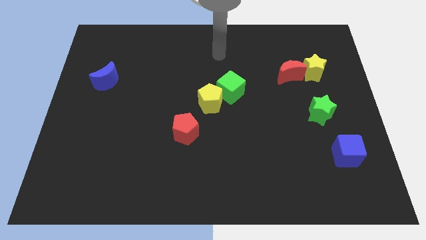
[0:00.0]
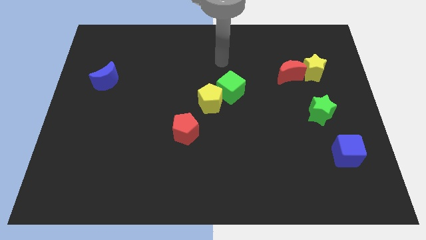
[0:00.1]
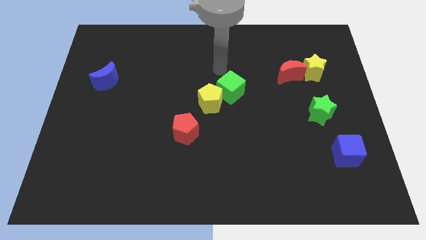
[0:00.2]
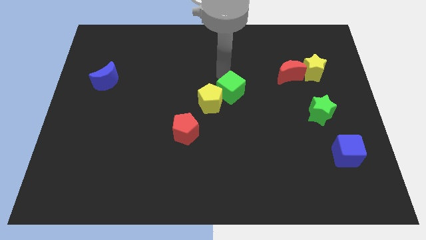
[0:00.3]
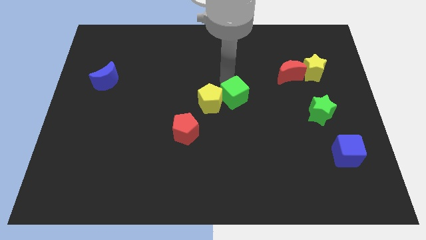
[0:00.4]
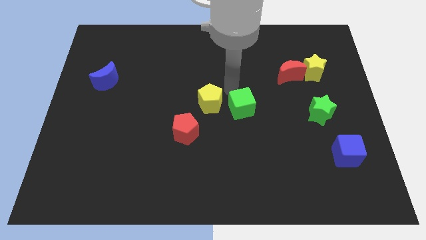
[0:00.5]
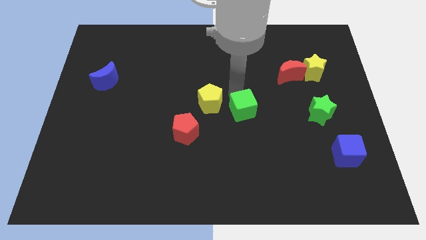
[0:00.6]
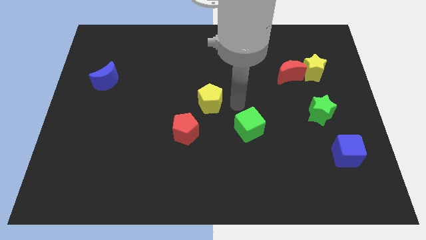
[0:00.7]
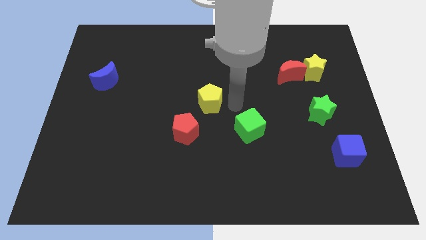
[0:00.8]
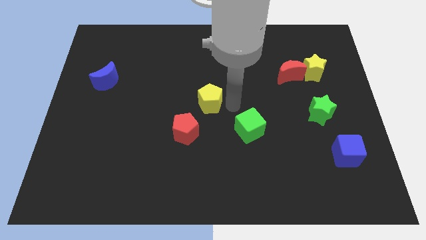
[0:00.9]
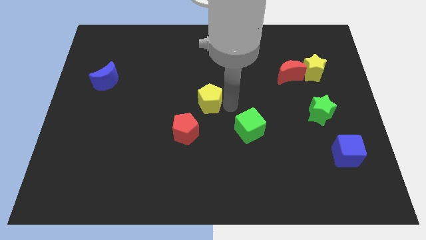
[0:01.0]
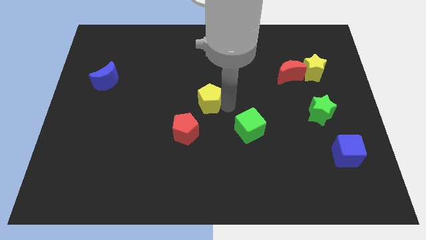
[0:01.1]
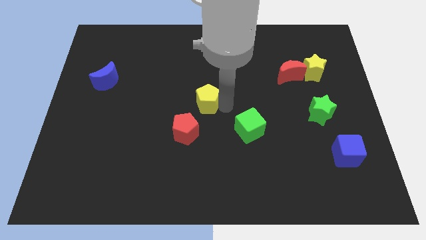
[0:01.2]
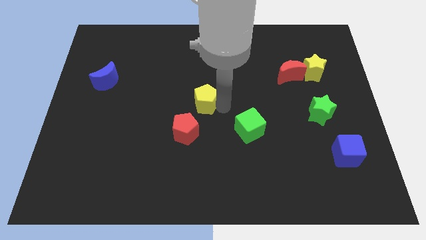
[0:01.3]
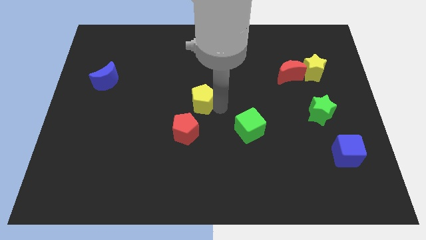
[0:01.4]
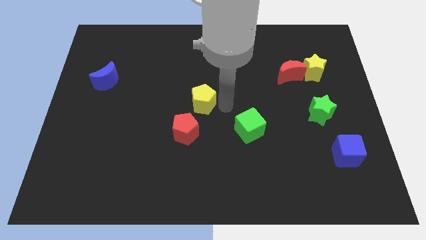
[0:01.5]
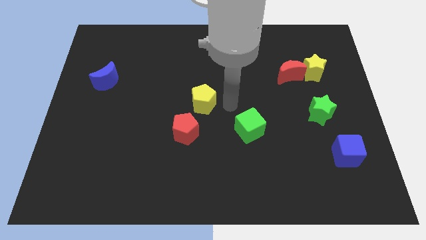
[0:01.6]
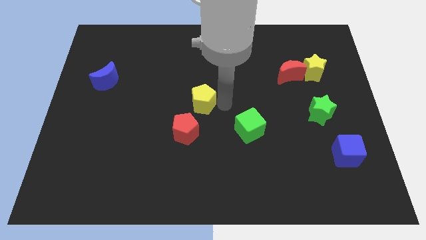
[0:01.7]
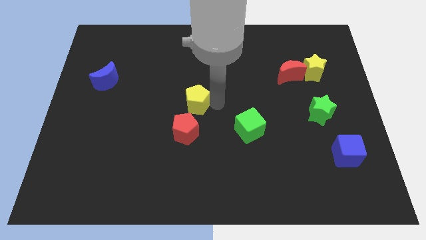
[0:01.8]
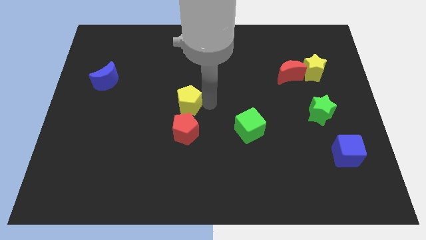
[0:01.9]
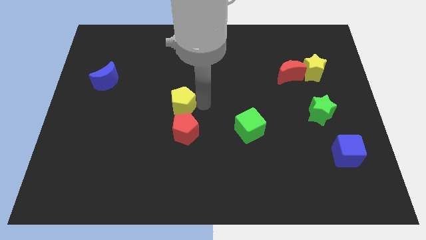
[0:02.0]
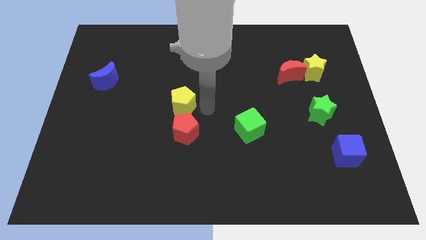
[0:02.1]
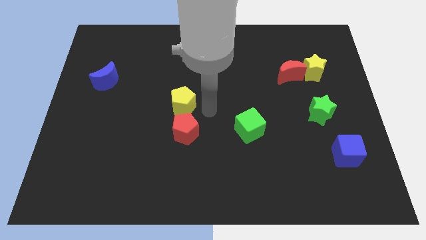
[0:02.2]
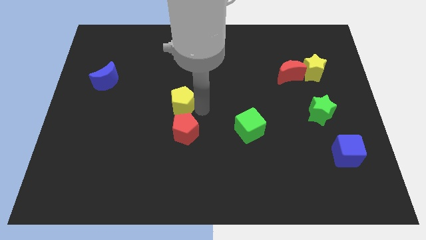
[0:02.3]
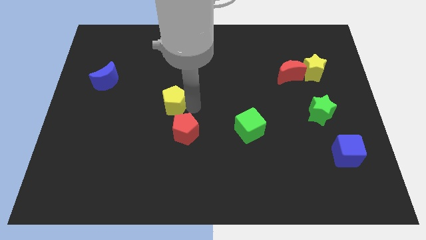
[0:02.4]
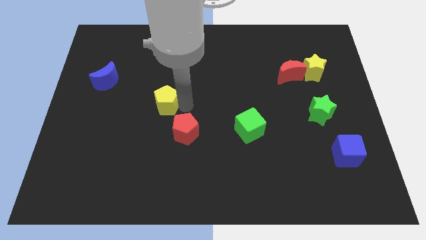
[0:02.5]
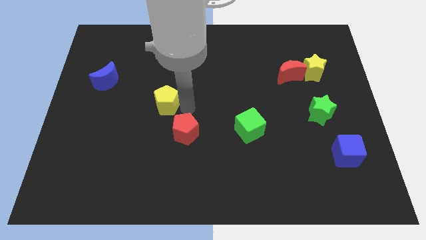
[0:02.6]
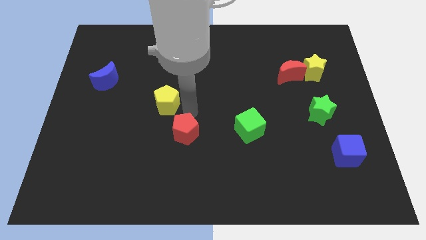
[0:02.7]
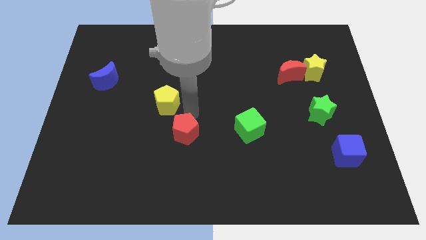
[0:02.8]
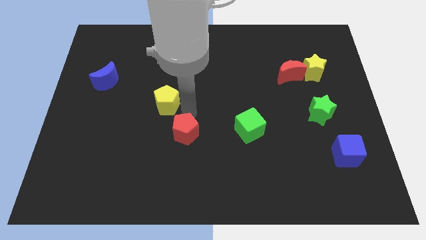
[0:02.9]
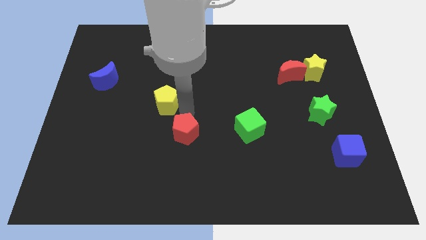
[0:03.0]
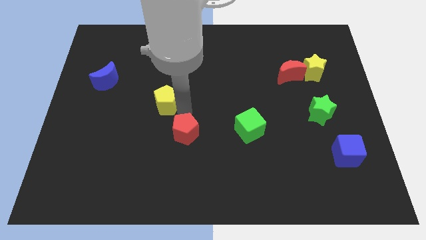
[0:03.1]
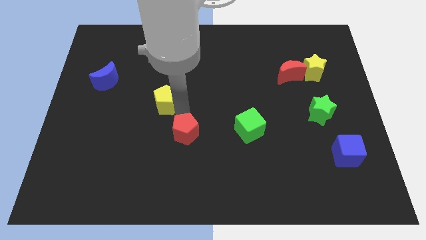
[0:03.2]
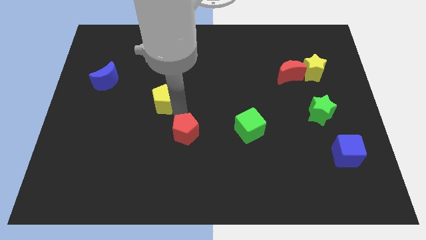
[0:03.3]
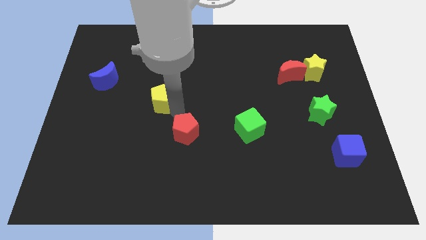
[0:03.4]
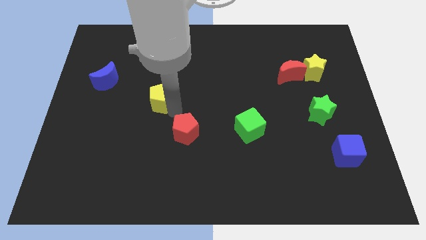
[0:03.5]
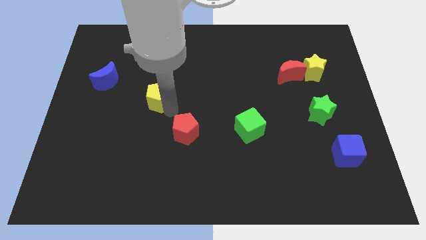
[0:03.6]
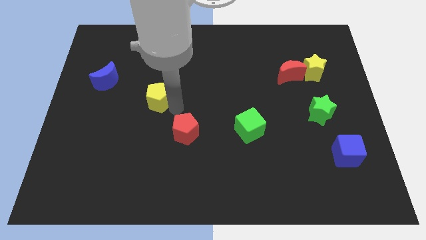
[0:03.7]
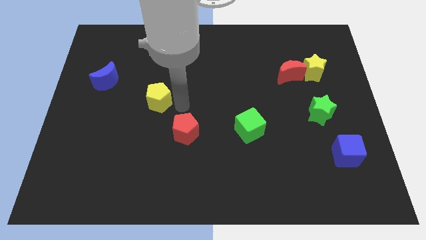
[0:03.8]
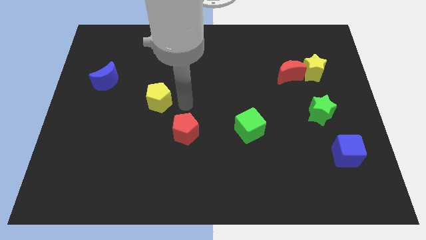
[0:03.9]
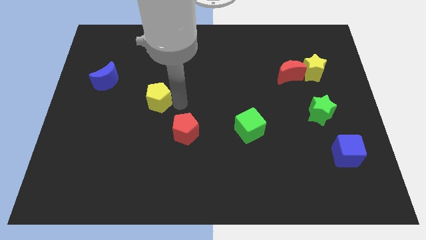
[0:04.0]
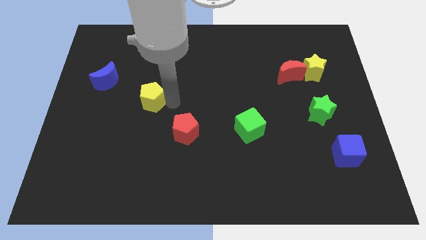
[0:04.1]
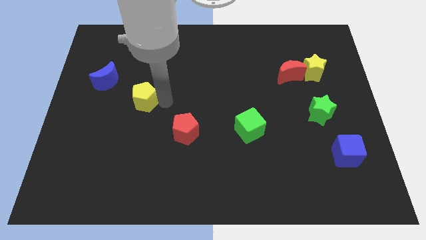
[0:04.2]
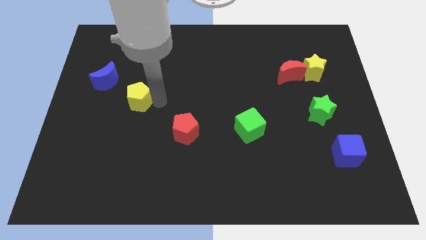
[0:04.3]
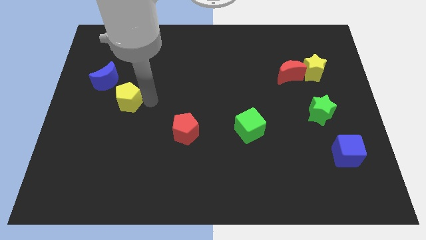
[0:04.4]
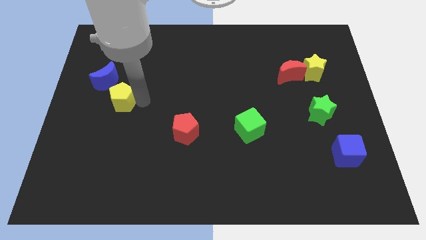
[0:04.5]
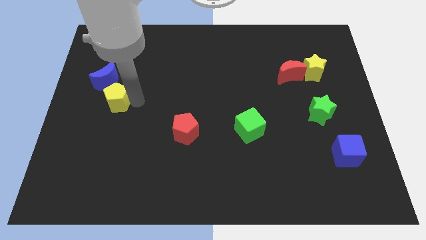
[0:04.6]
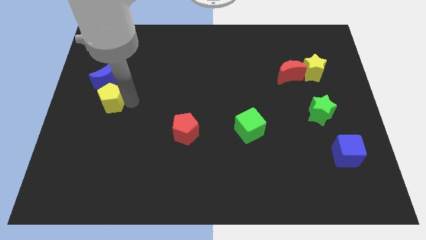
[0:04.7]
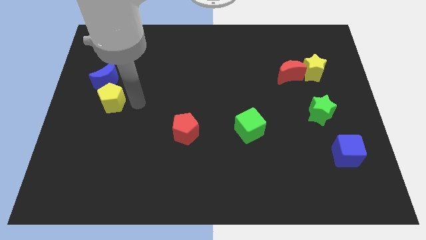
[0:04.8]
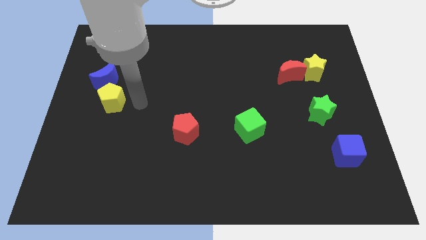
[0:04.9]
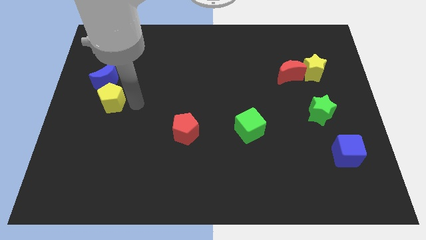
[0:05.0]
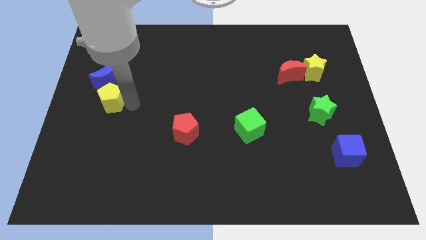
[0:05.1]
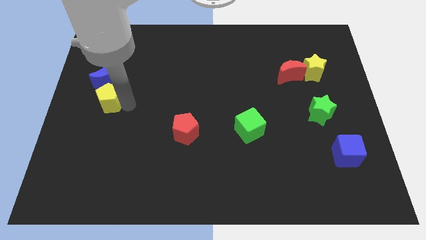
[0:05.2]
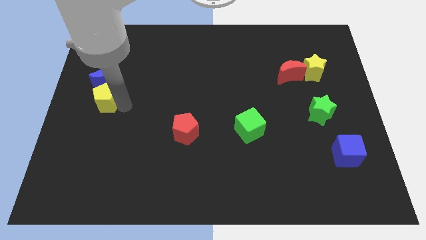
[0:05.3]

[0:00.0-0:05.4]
move the yellow pentagon to the left side

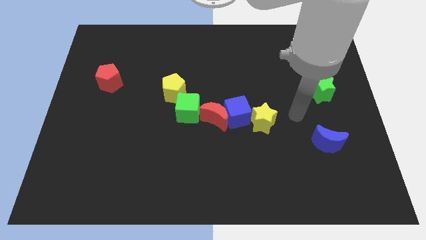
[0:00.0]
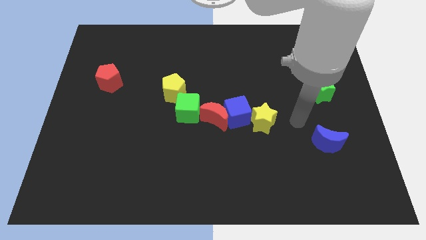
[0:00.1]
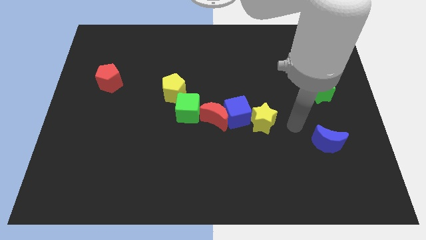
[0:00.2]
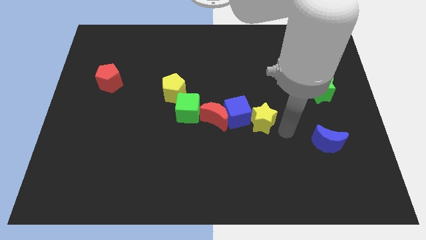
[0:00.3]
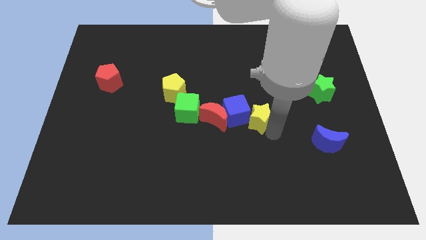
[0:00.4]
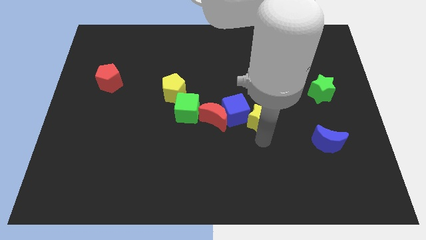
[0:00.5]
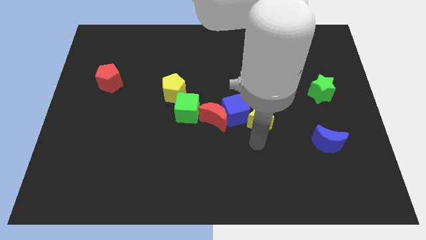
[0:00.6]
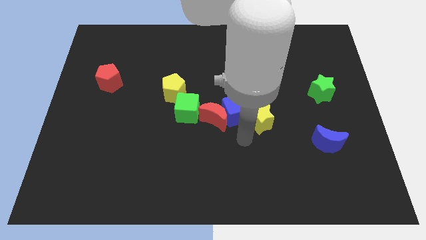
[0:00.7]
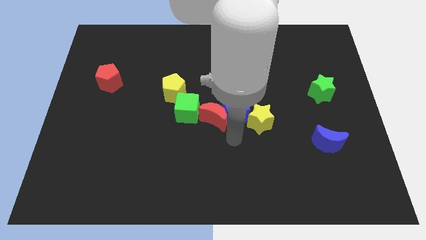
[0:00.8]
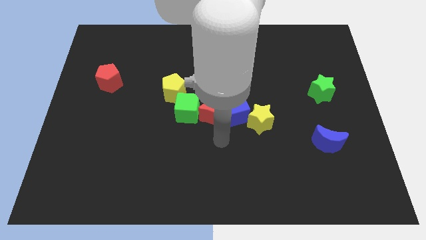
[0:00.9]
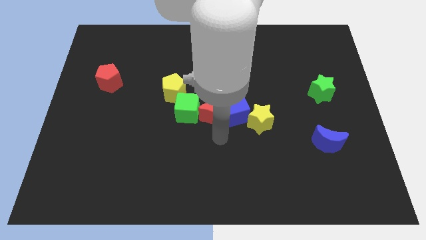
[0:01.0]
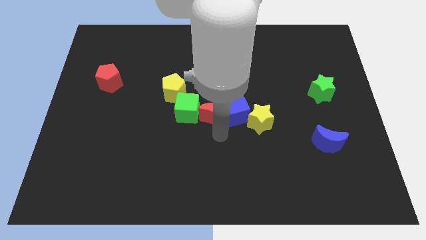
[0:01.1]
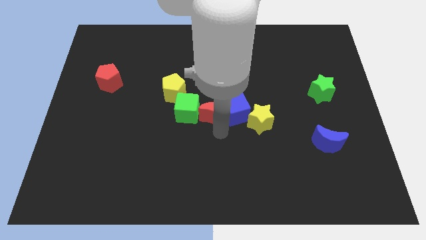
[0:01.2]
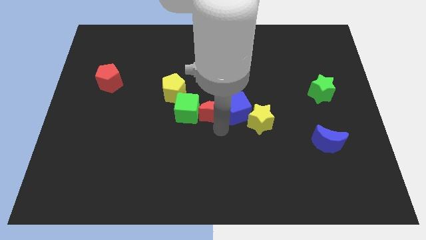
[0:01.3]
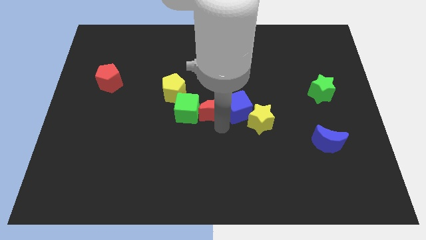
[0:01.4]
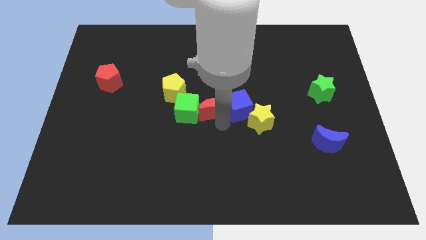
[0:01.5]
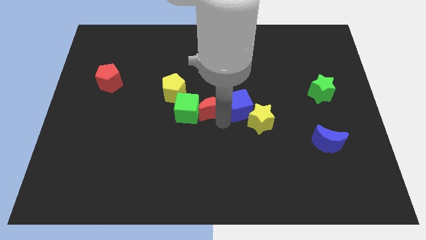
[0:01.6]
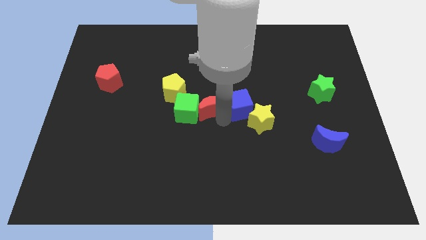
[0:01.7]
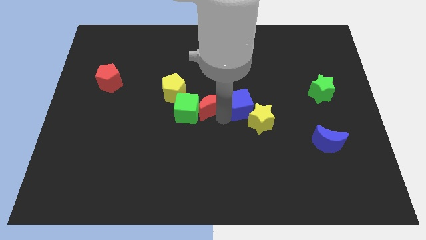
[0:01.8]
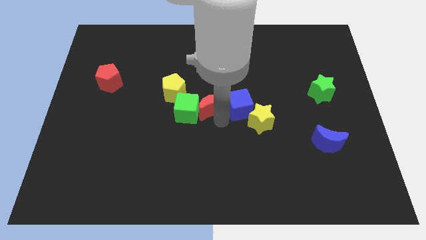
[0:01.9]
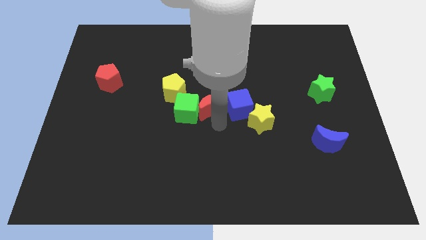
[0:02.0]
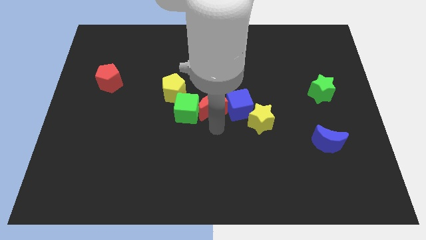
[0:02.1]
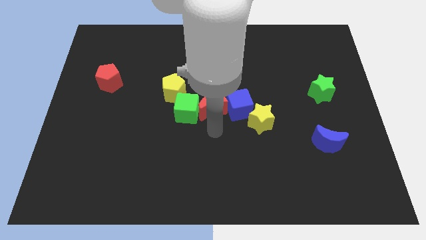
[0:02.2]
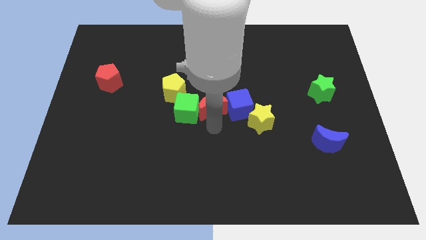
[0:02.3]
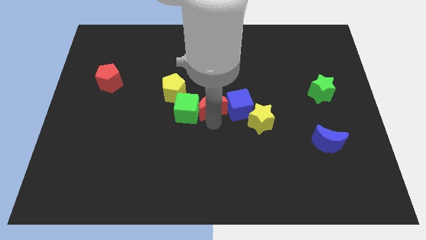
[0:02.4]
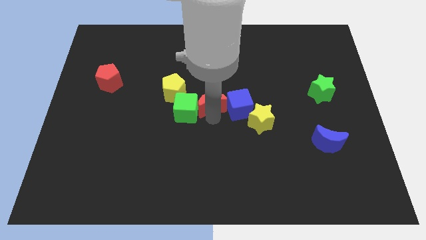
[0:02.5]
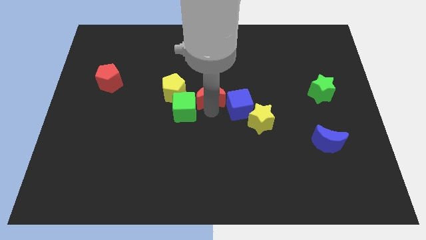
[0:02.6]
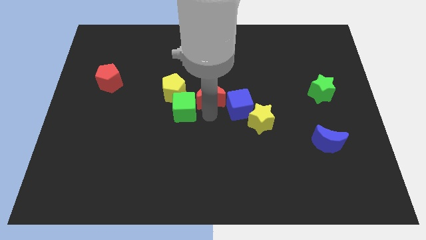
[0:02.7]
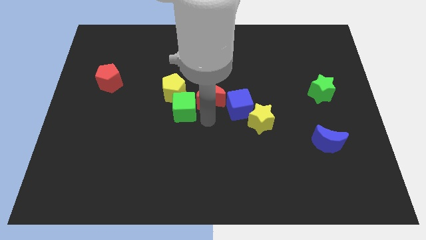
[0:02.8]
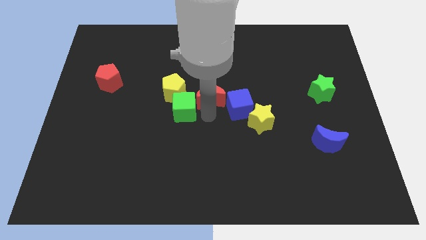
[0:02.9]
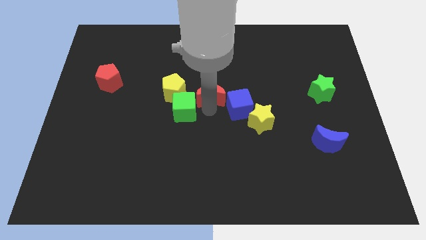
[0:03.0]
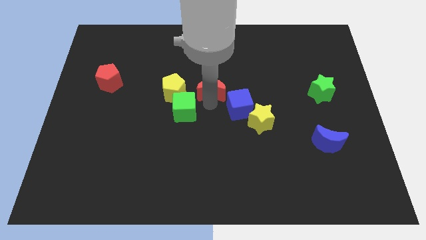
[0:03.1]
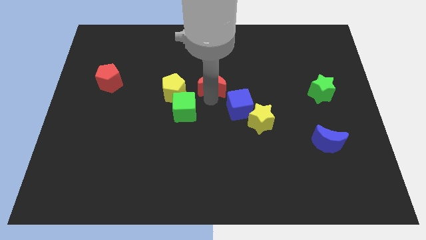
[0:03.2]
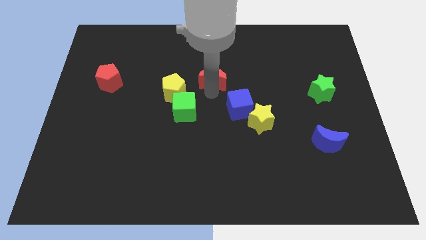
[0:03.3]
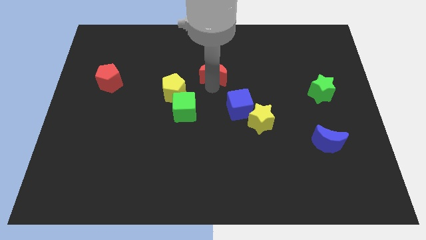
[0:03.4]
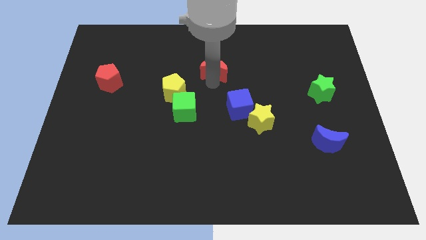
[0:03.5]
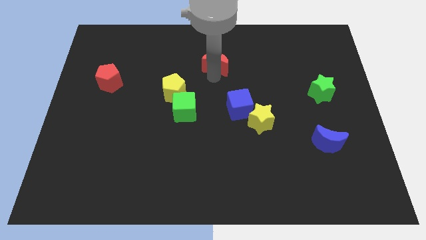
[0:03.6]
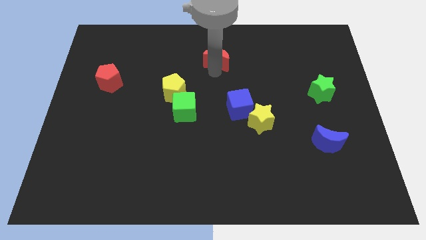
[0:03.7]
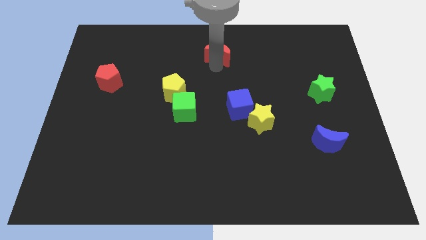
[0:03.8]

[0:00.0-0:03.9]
put the red moon to the towards your base
